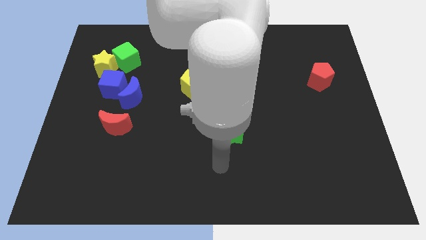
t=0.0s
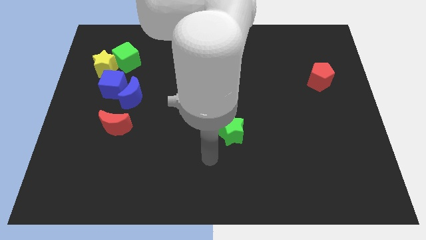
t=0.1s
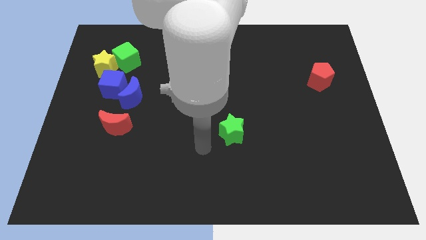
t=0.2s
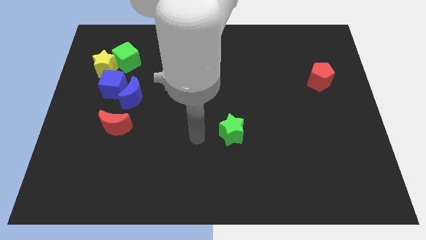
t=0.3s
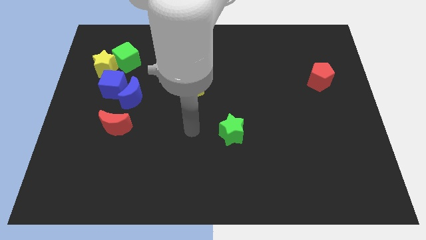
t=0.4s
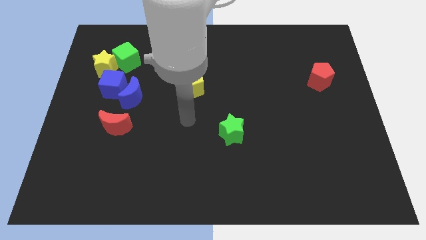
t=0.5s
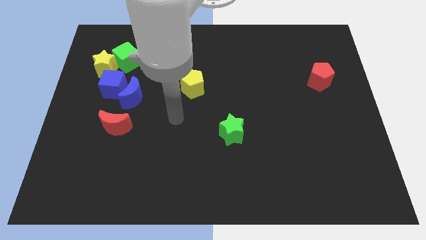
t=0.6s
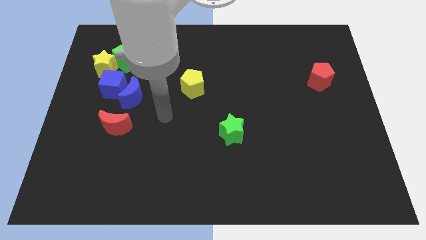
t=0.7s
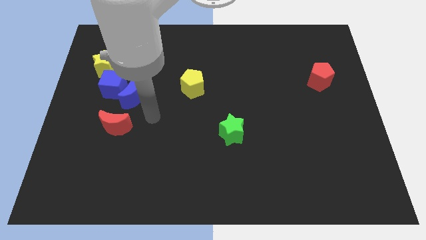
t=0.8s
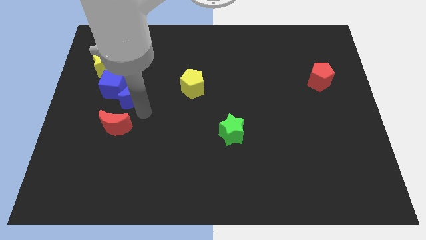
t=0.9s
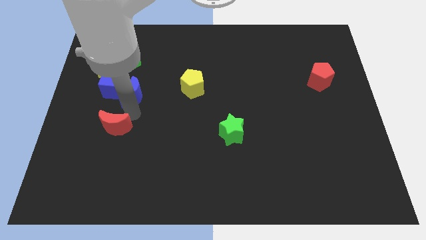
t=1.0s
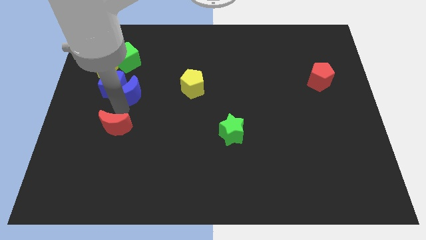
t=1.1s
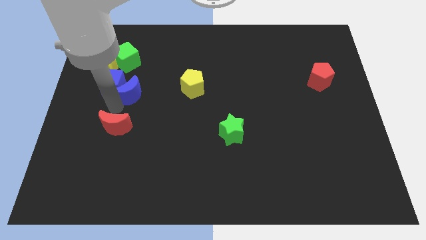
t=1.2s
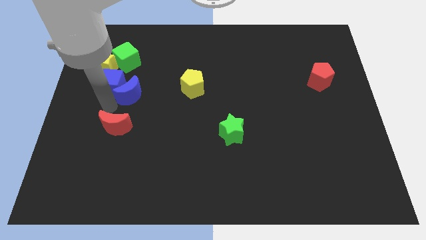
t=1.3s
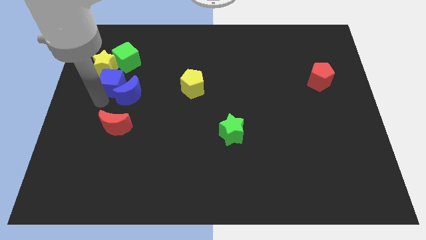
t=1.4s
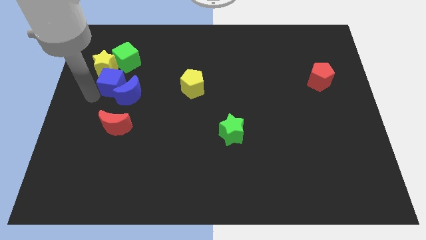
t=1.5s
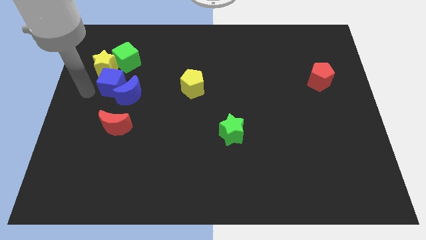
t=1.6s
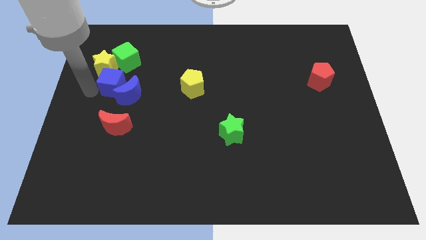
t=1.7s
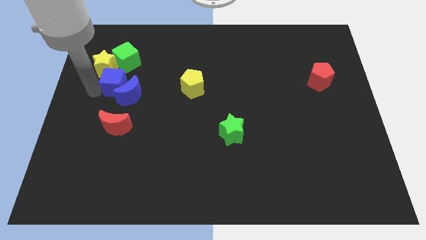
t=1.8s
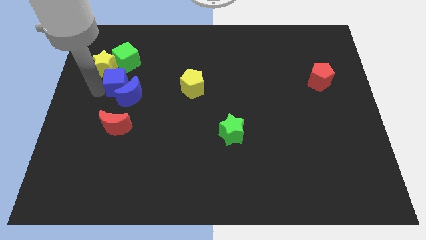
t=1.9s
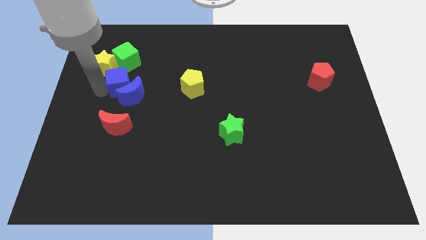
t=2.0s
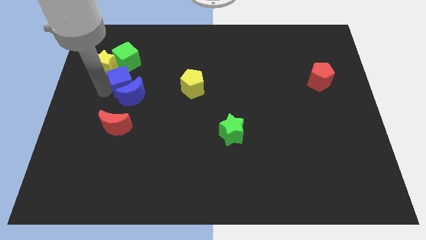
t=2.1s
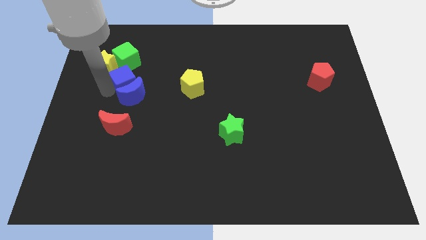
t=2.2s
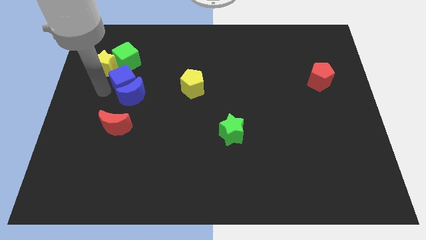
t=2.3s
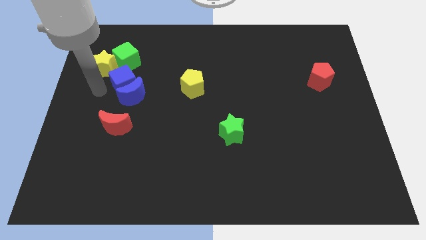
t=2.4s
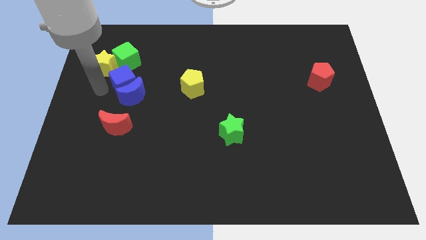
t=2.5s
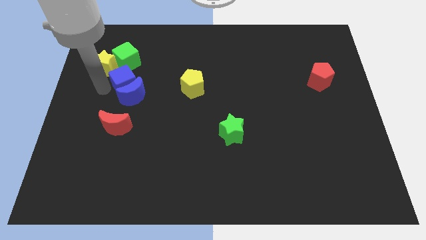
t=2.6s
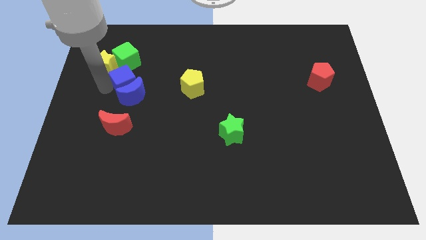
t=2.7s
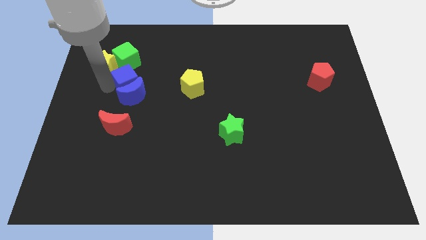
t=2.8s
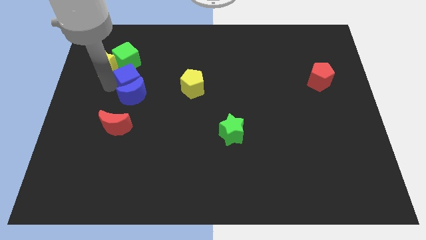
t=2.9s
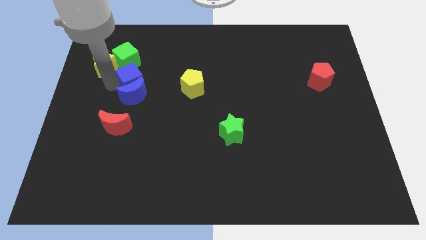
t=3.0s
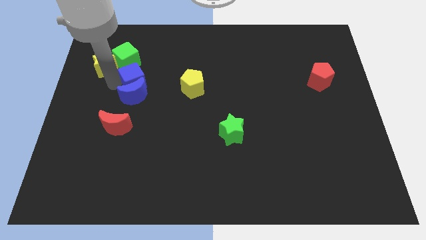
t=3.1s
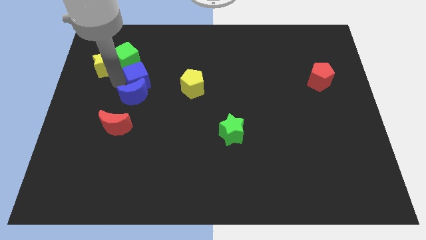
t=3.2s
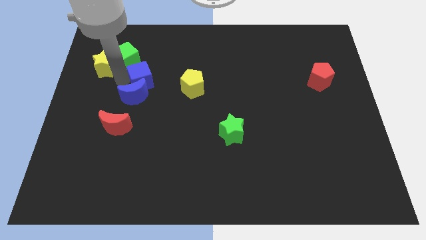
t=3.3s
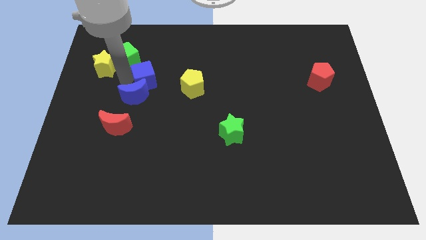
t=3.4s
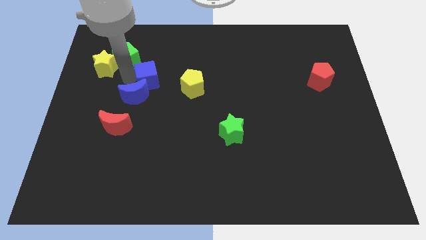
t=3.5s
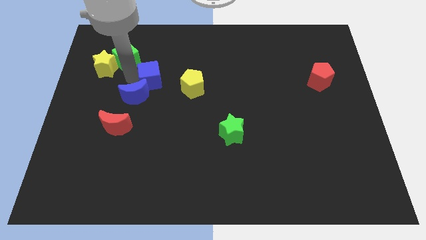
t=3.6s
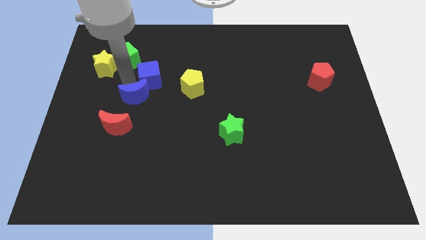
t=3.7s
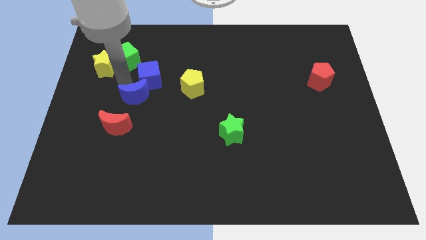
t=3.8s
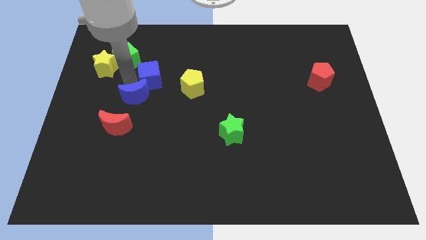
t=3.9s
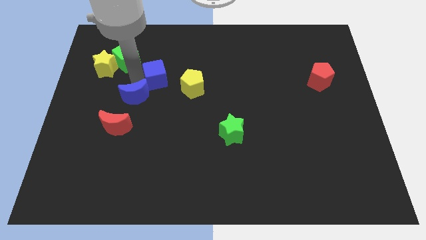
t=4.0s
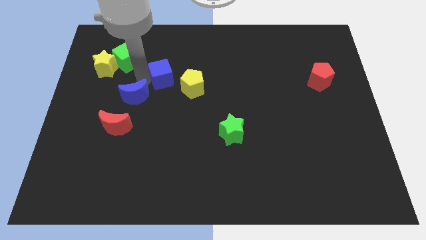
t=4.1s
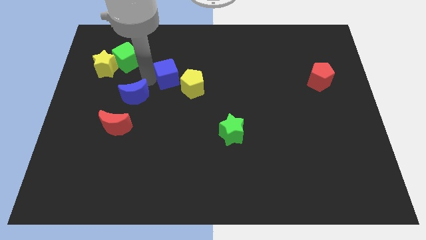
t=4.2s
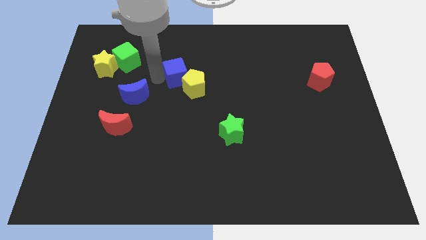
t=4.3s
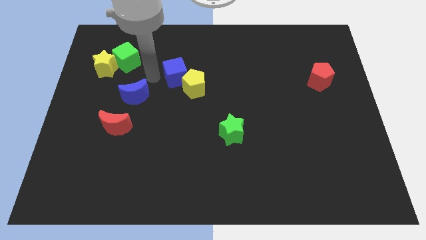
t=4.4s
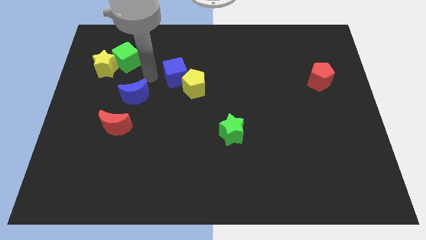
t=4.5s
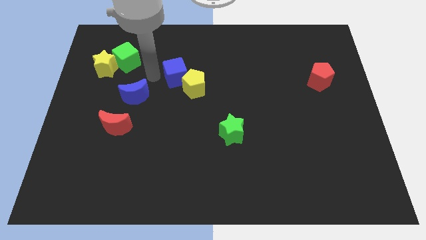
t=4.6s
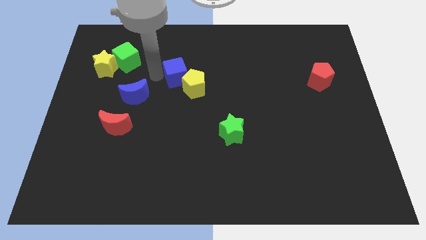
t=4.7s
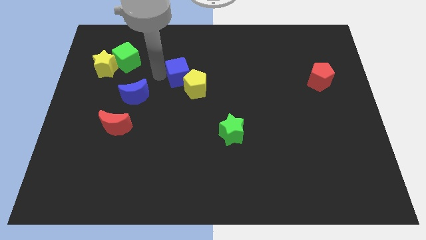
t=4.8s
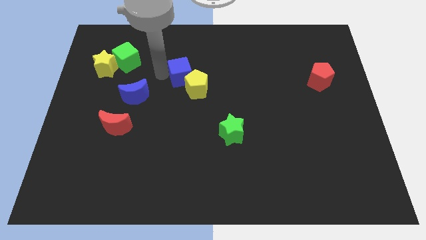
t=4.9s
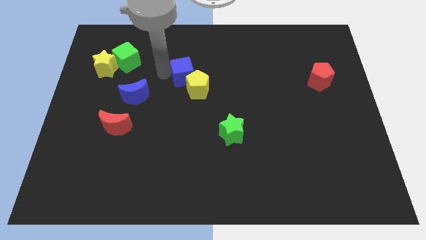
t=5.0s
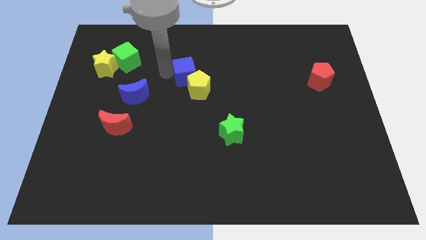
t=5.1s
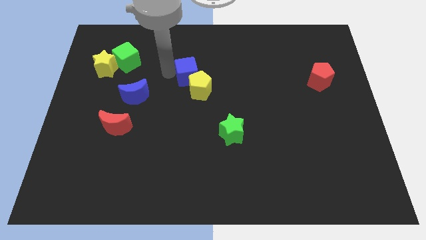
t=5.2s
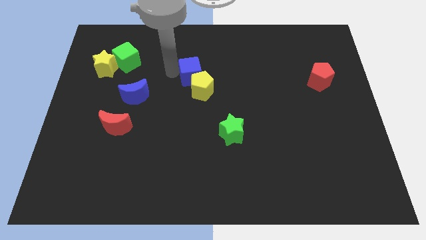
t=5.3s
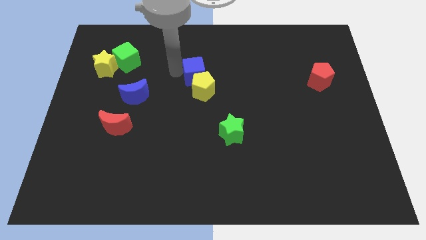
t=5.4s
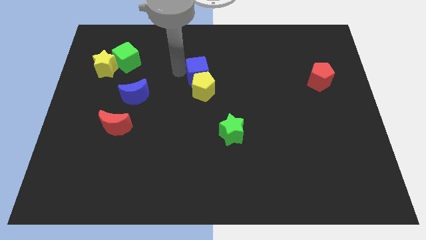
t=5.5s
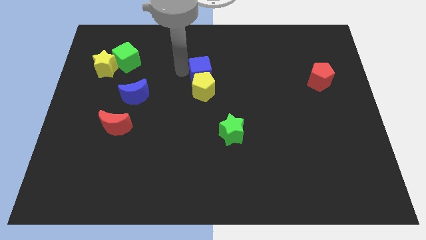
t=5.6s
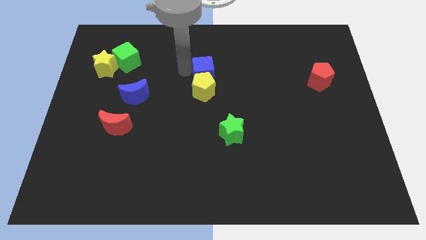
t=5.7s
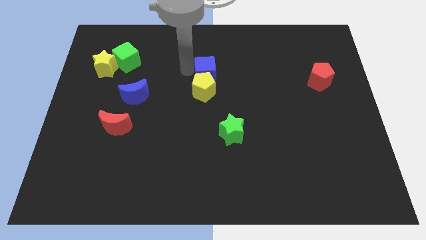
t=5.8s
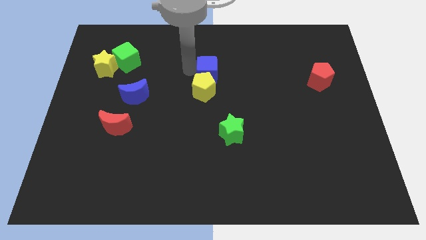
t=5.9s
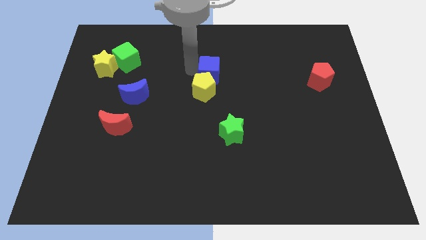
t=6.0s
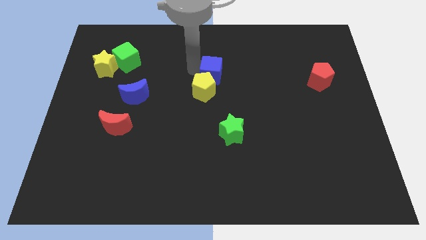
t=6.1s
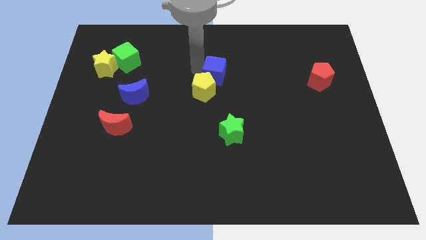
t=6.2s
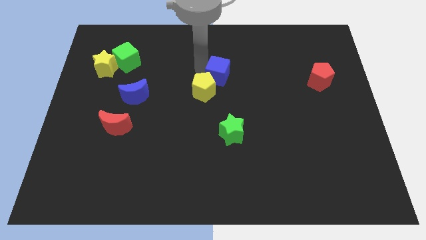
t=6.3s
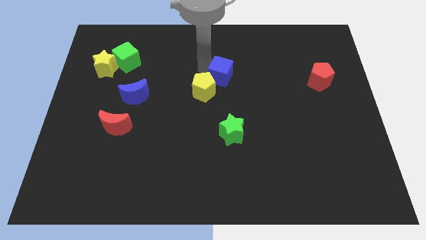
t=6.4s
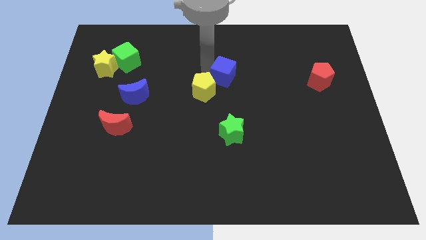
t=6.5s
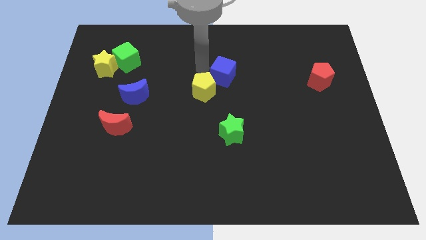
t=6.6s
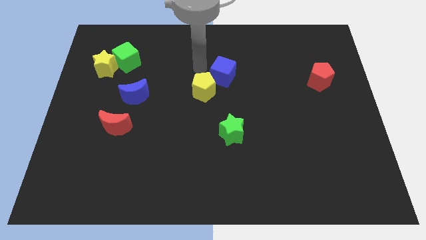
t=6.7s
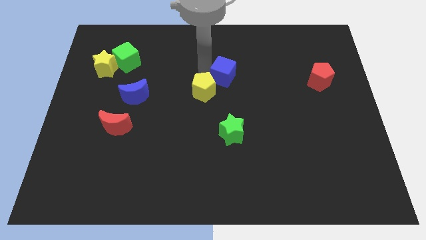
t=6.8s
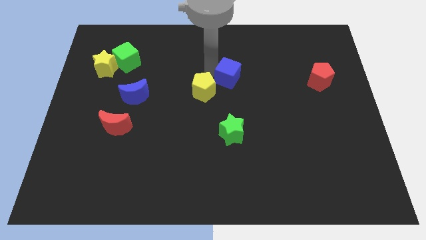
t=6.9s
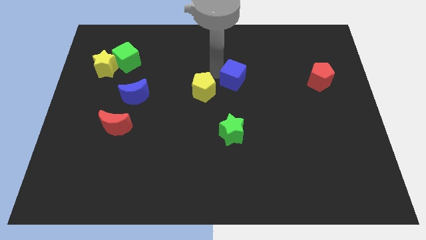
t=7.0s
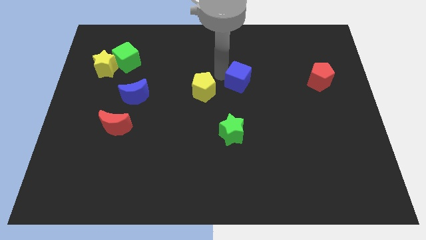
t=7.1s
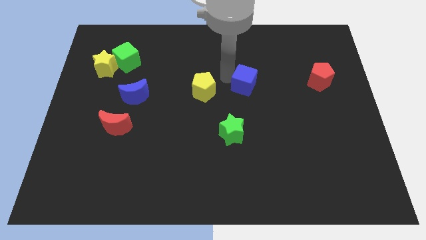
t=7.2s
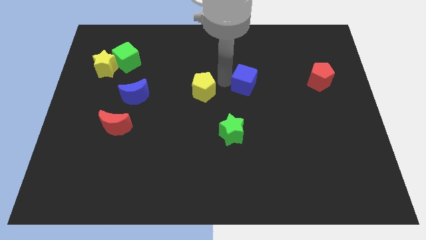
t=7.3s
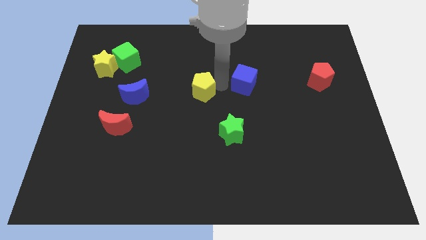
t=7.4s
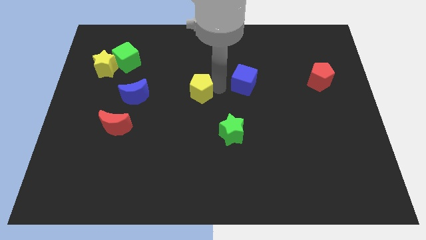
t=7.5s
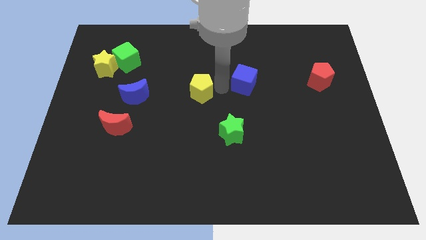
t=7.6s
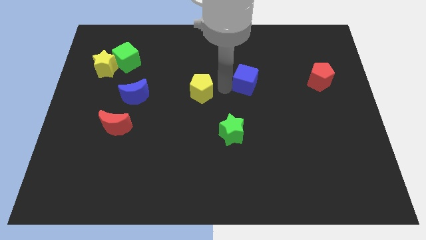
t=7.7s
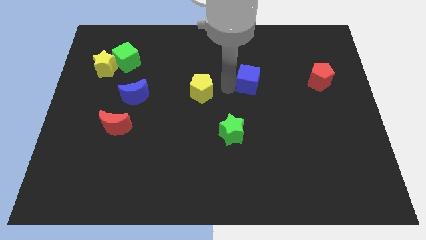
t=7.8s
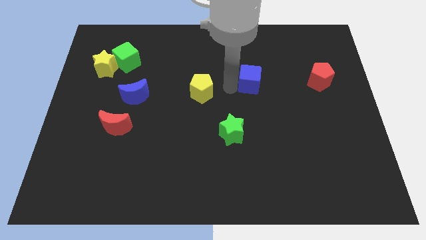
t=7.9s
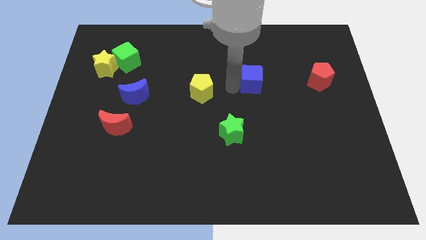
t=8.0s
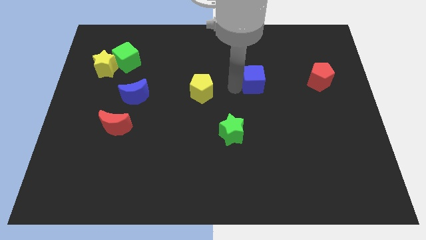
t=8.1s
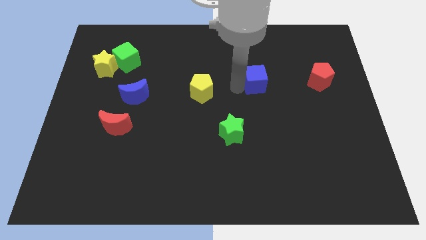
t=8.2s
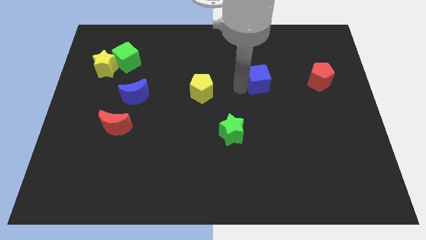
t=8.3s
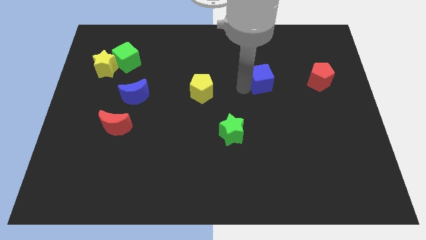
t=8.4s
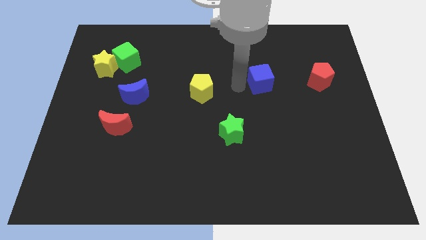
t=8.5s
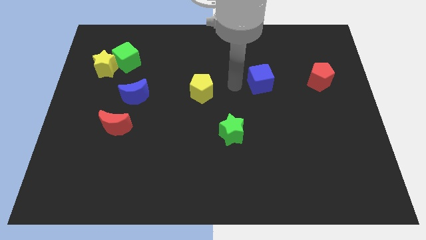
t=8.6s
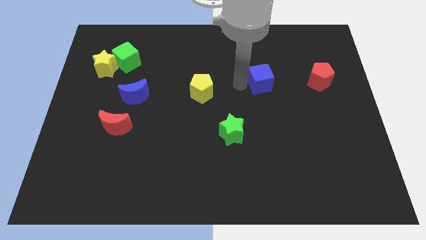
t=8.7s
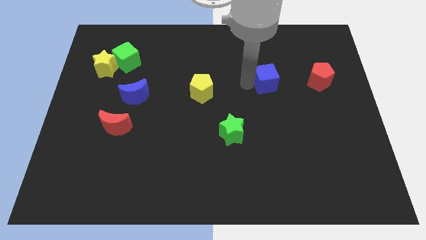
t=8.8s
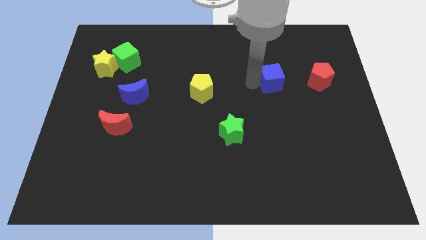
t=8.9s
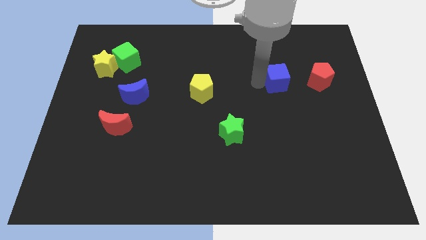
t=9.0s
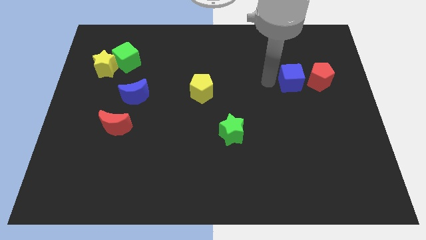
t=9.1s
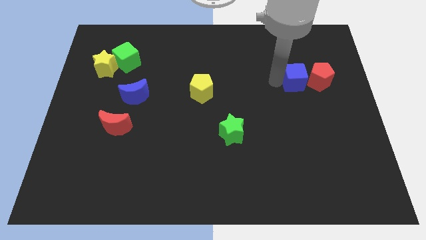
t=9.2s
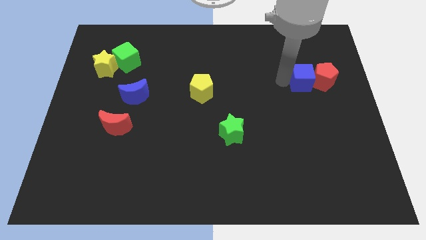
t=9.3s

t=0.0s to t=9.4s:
push the blue cube to the red pentagon
